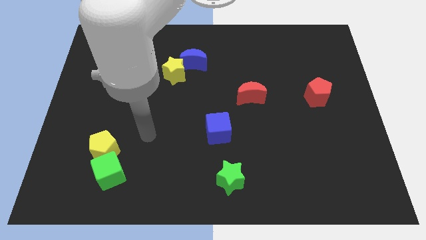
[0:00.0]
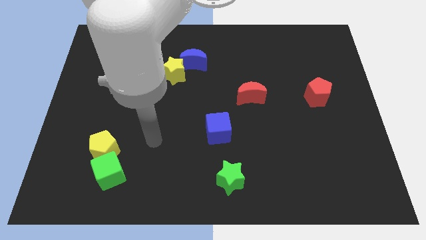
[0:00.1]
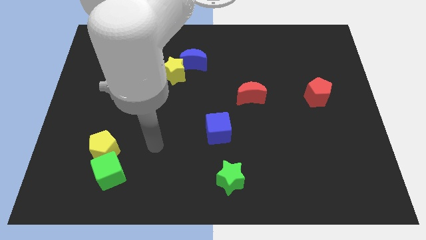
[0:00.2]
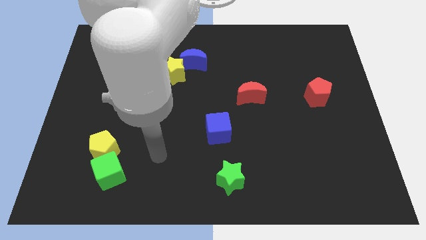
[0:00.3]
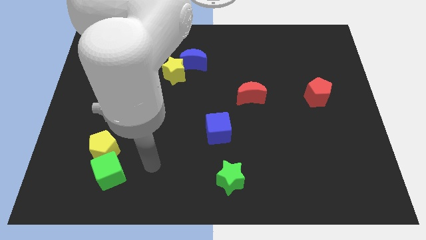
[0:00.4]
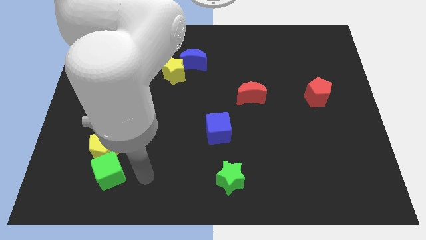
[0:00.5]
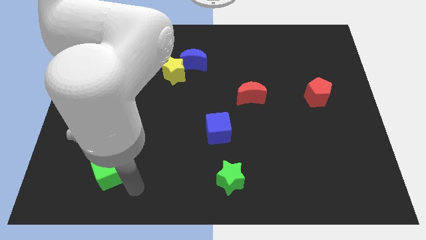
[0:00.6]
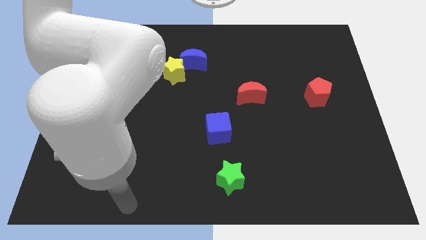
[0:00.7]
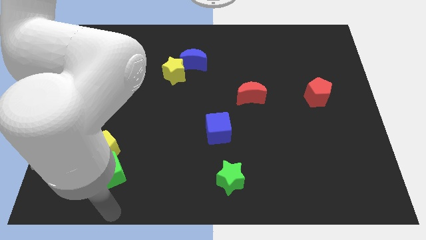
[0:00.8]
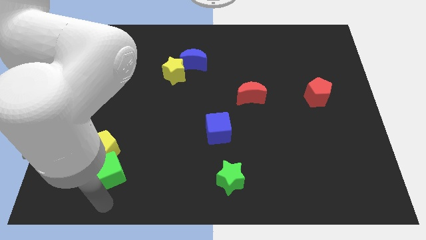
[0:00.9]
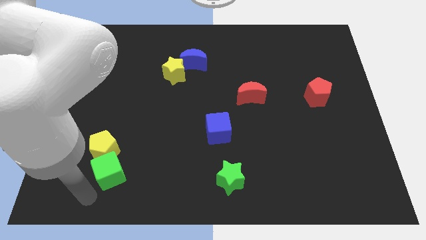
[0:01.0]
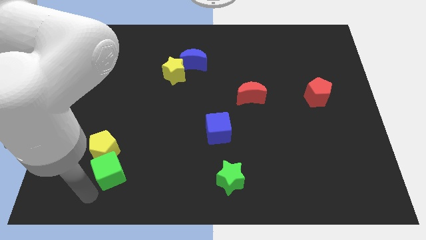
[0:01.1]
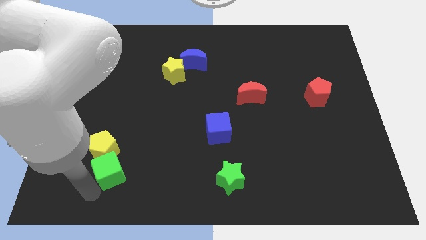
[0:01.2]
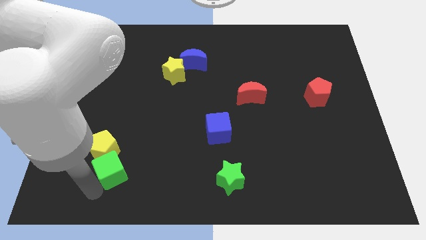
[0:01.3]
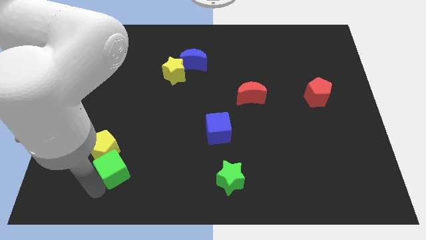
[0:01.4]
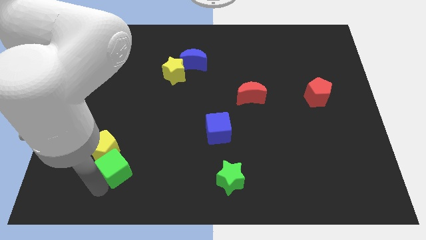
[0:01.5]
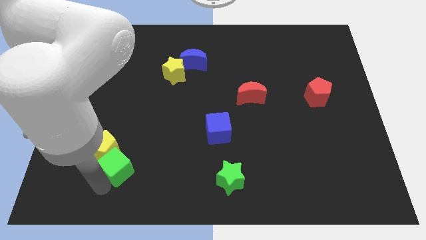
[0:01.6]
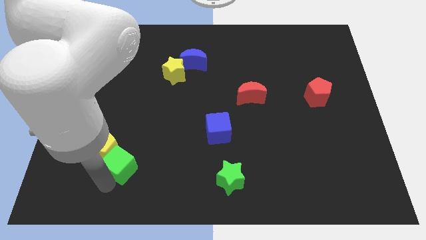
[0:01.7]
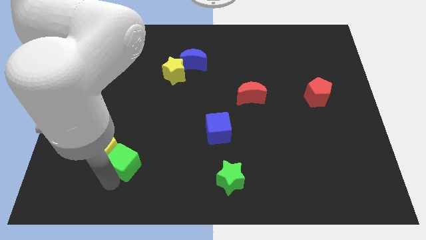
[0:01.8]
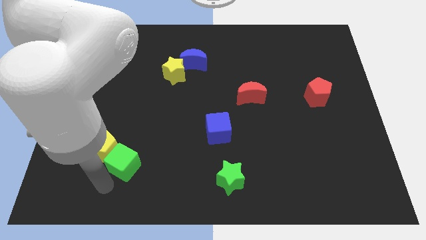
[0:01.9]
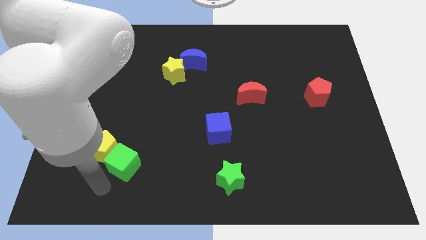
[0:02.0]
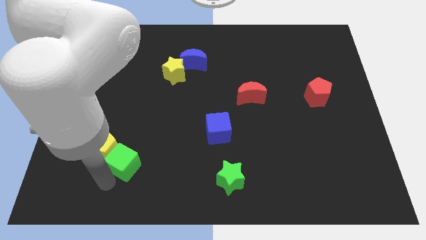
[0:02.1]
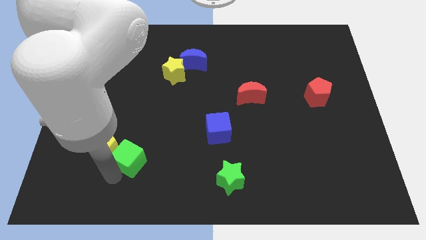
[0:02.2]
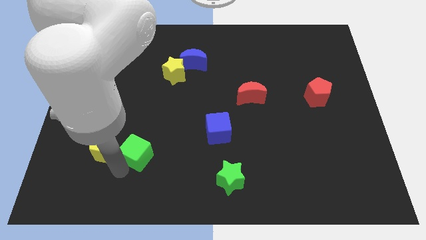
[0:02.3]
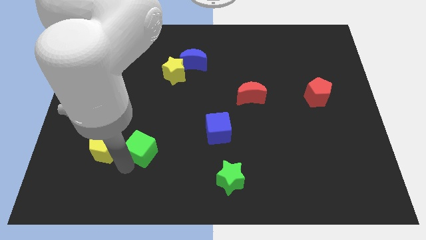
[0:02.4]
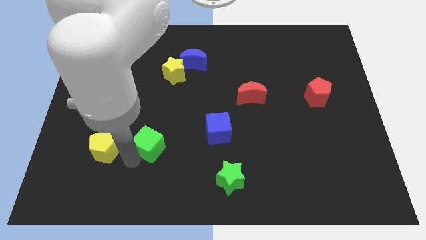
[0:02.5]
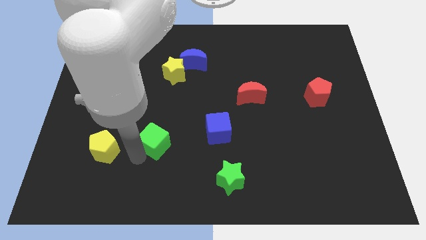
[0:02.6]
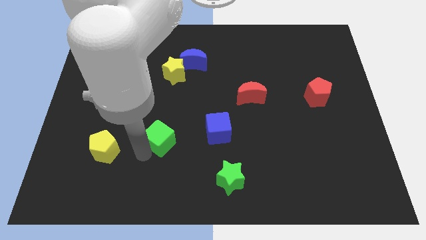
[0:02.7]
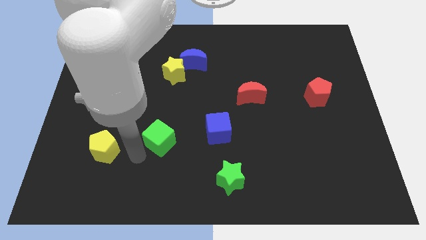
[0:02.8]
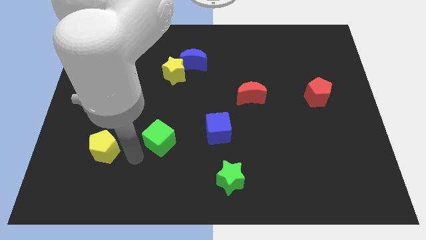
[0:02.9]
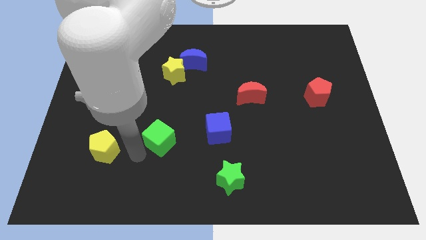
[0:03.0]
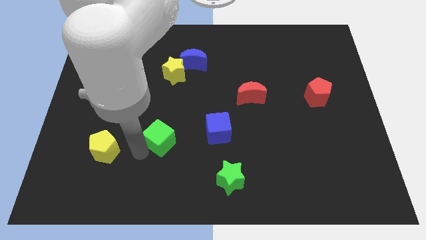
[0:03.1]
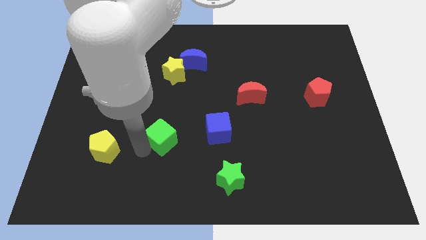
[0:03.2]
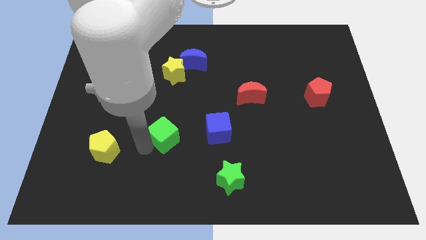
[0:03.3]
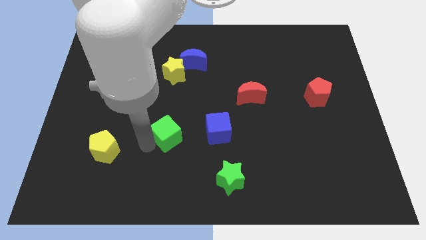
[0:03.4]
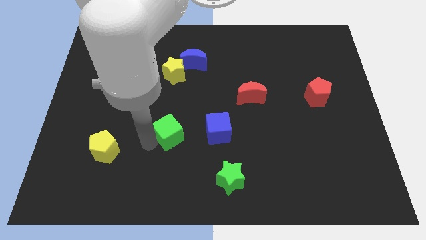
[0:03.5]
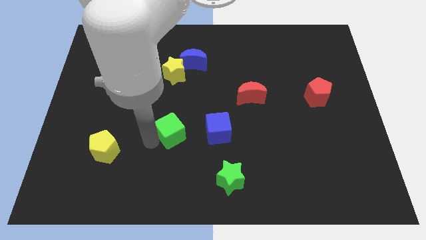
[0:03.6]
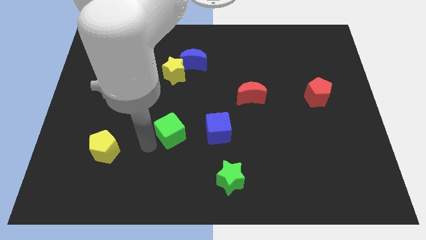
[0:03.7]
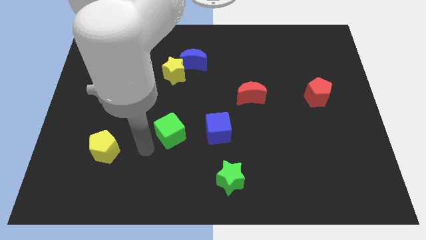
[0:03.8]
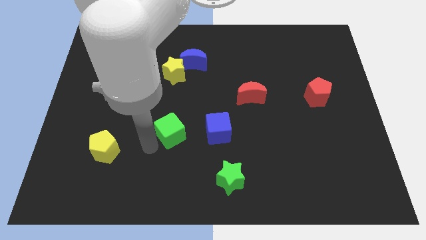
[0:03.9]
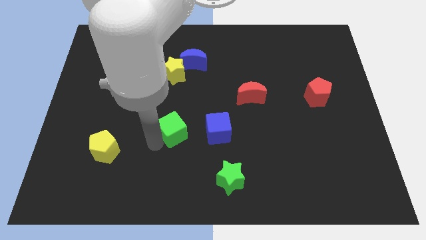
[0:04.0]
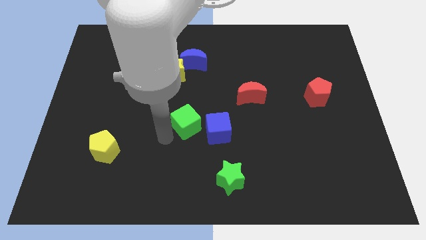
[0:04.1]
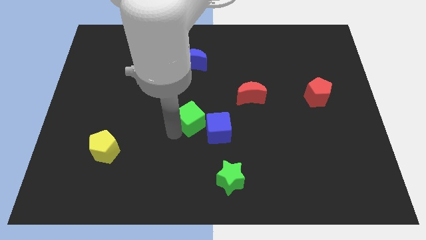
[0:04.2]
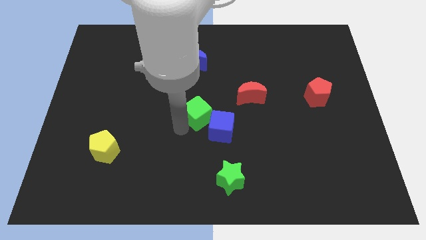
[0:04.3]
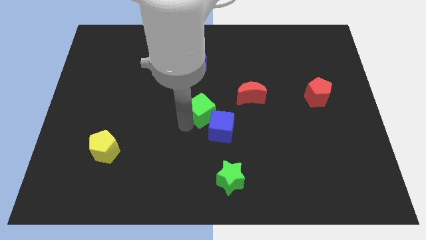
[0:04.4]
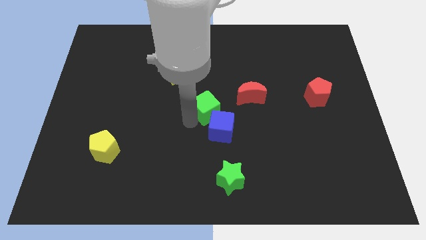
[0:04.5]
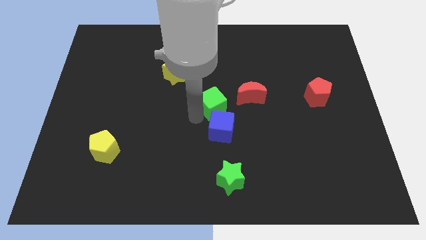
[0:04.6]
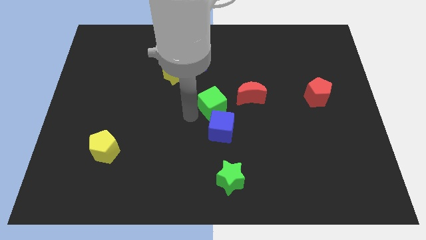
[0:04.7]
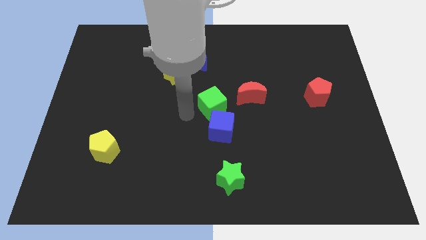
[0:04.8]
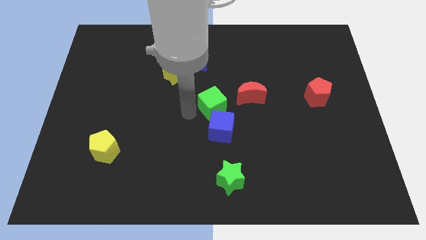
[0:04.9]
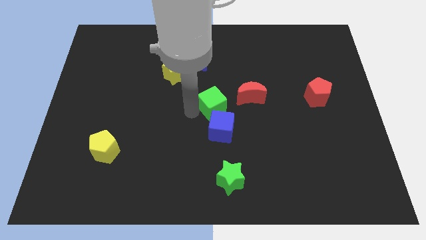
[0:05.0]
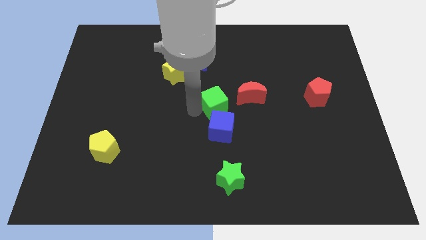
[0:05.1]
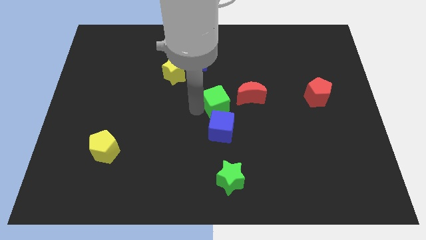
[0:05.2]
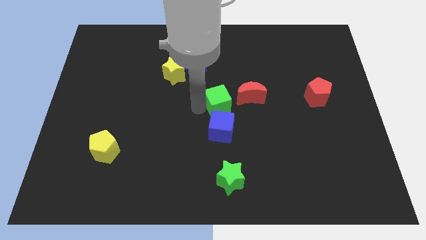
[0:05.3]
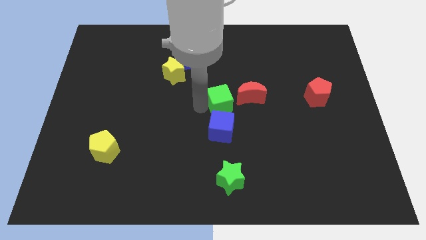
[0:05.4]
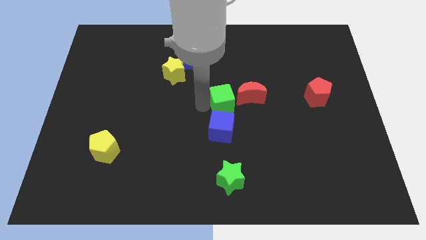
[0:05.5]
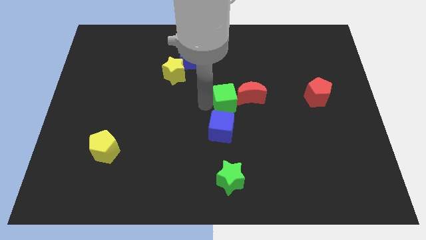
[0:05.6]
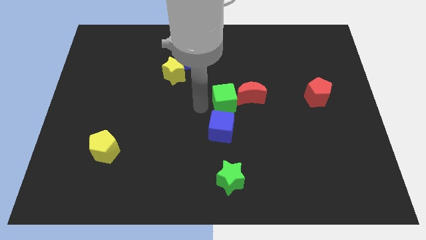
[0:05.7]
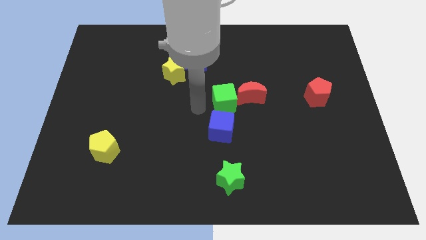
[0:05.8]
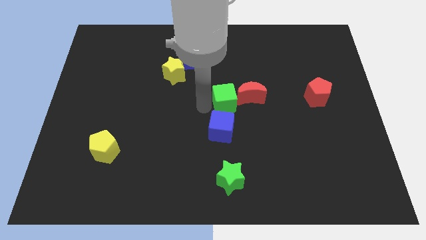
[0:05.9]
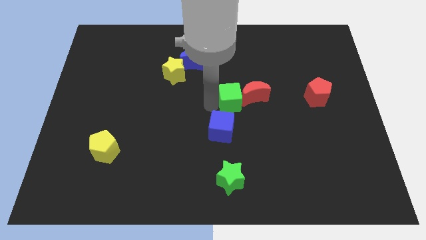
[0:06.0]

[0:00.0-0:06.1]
push the green cube next to the red moon

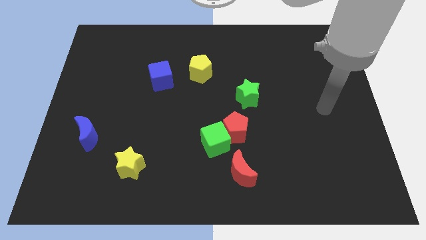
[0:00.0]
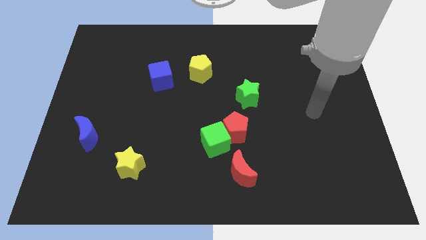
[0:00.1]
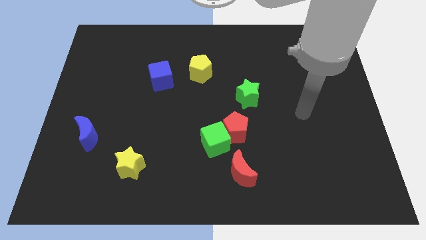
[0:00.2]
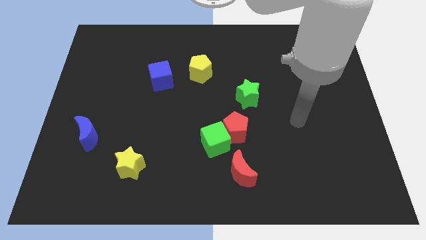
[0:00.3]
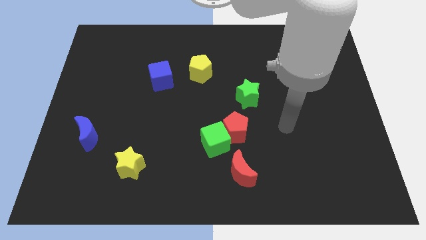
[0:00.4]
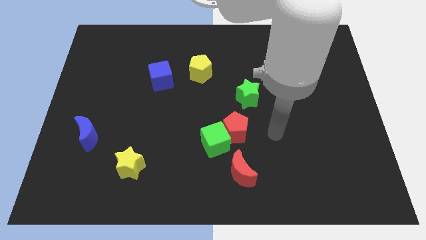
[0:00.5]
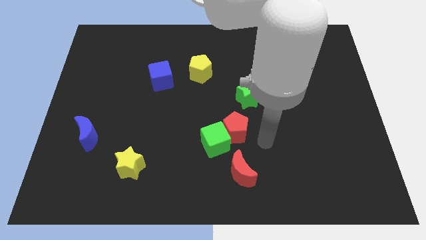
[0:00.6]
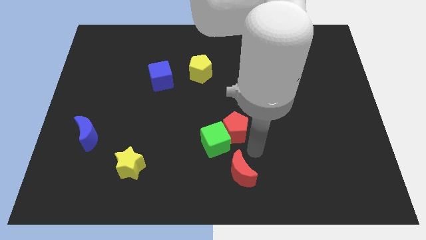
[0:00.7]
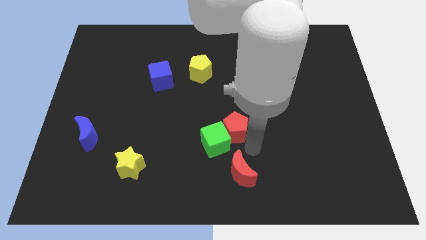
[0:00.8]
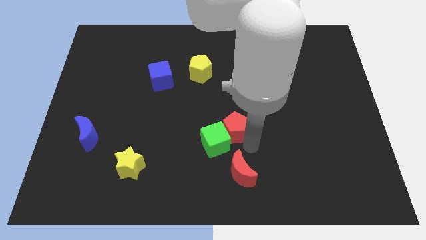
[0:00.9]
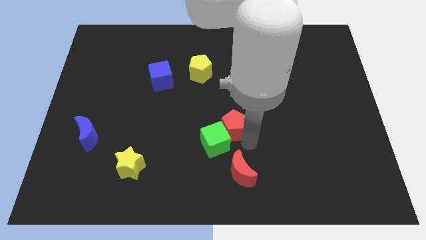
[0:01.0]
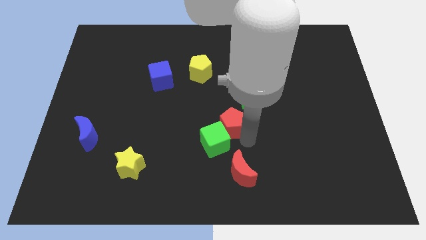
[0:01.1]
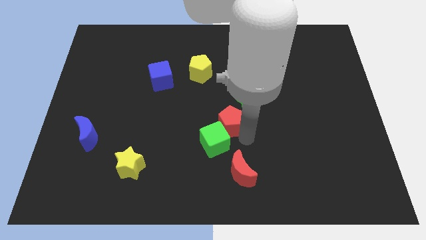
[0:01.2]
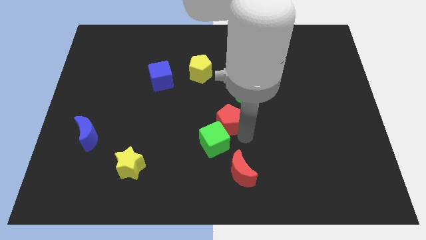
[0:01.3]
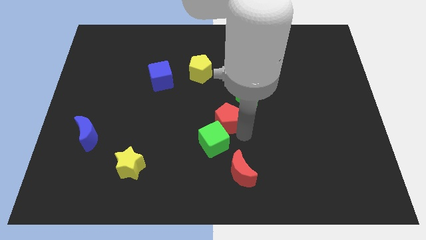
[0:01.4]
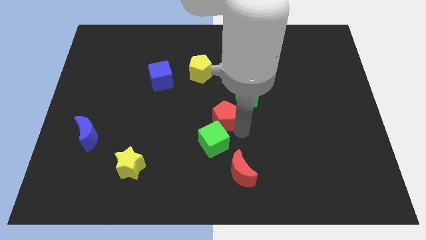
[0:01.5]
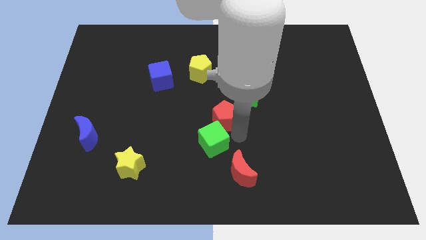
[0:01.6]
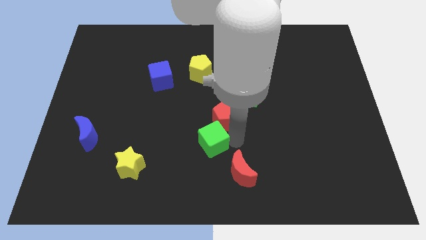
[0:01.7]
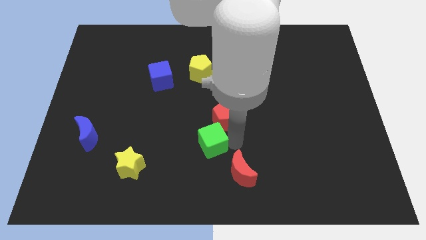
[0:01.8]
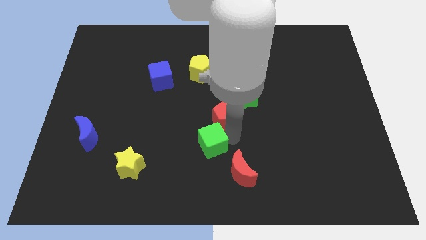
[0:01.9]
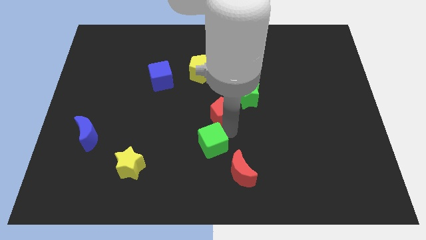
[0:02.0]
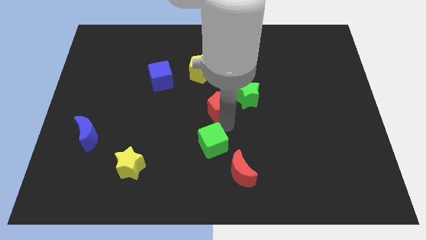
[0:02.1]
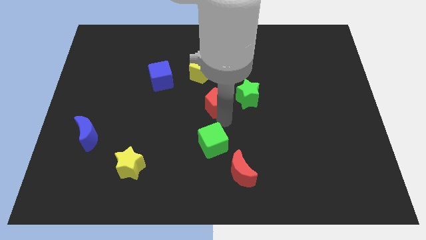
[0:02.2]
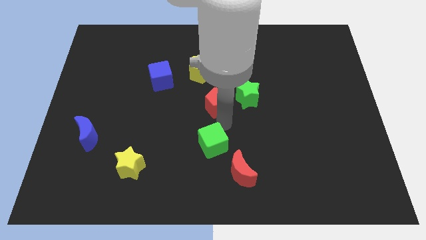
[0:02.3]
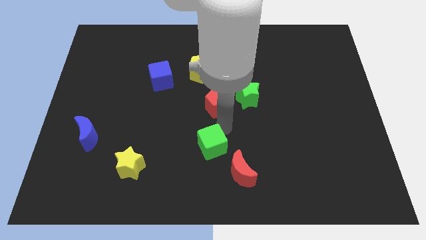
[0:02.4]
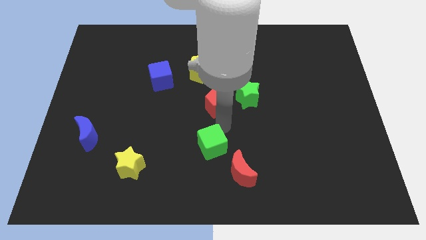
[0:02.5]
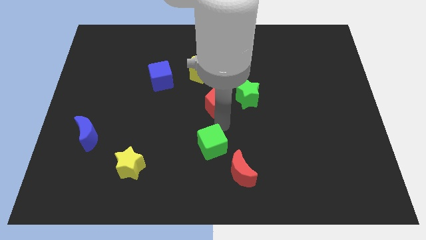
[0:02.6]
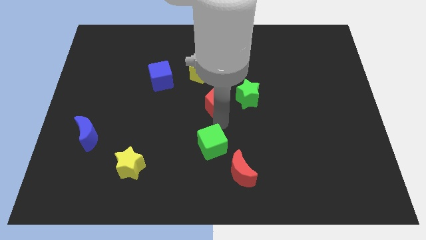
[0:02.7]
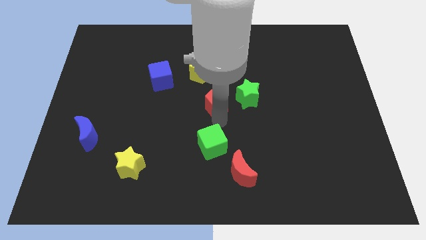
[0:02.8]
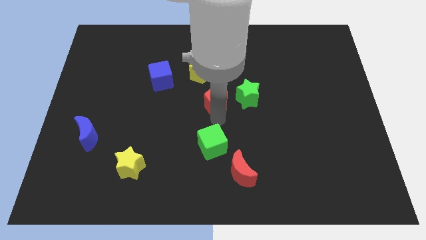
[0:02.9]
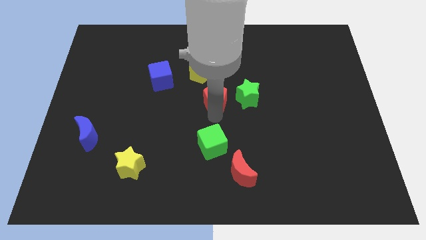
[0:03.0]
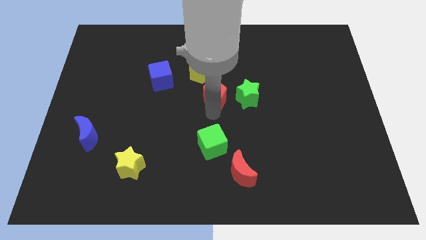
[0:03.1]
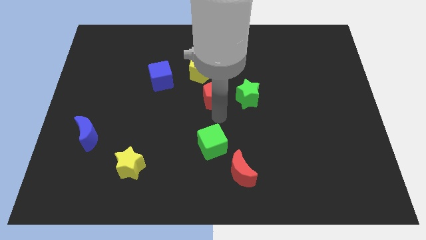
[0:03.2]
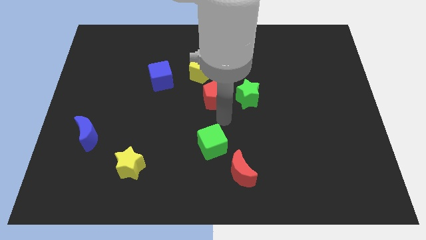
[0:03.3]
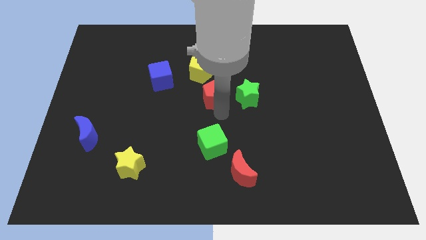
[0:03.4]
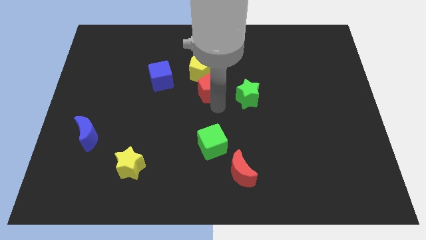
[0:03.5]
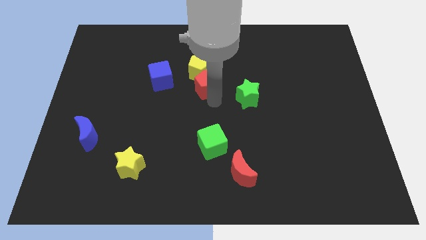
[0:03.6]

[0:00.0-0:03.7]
put the red pentagon close to the yellow pentagon
